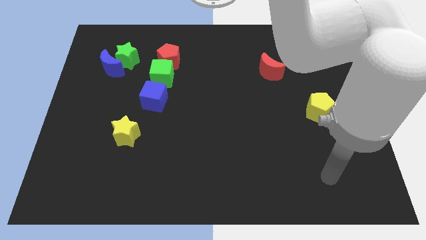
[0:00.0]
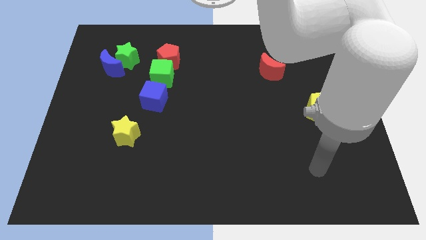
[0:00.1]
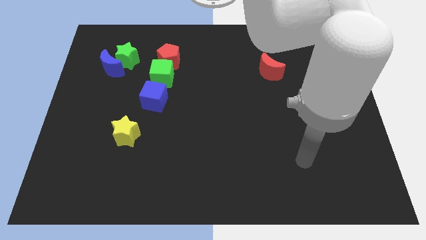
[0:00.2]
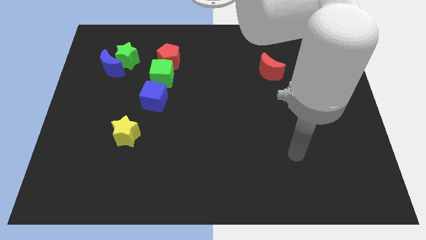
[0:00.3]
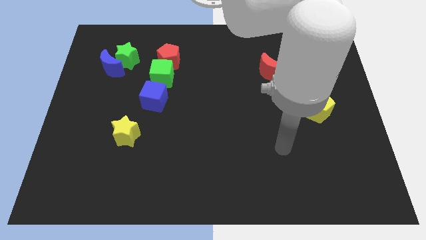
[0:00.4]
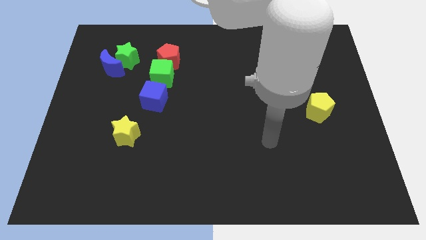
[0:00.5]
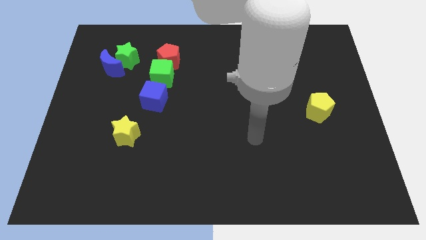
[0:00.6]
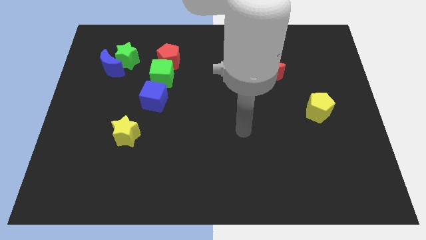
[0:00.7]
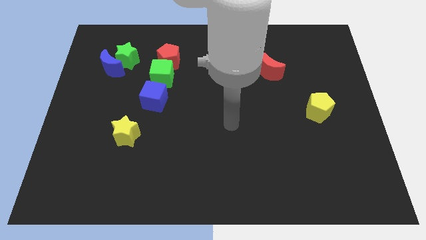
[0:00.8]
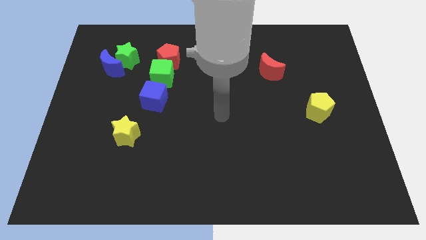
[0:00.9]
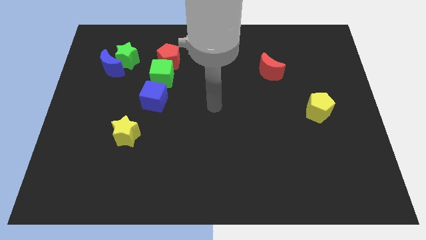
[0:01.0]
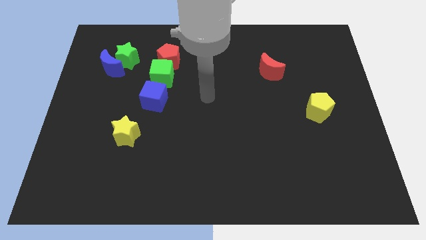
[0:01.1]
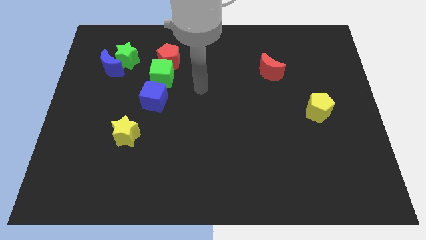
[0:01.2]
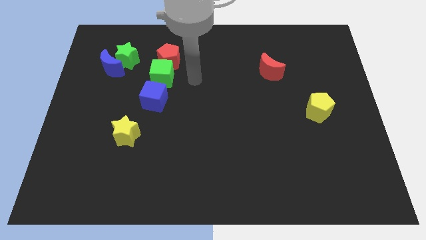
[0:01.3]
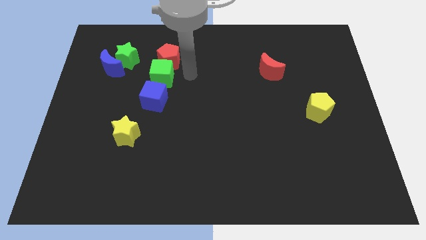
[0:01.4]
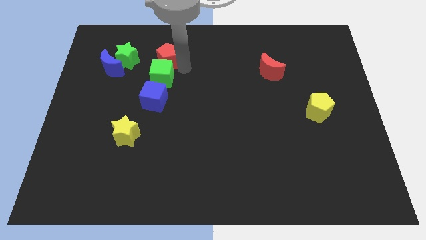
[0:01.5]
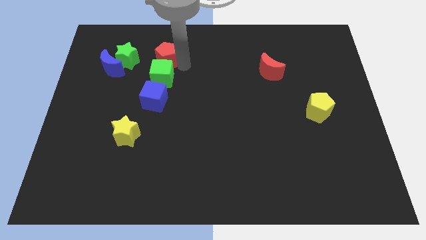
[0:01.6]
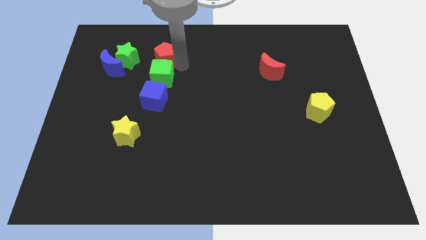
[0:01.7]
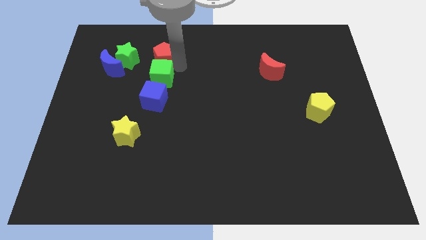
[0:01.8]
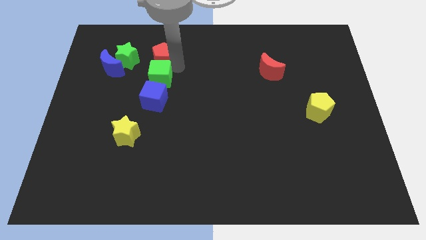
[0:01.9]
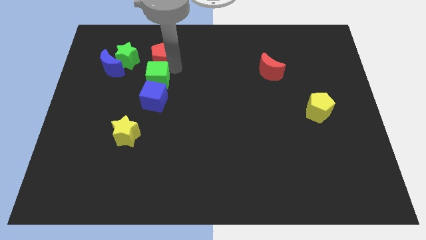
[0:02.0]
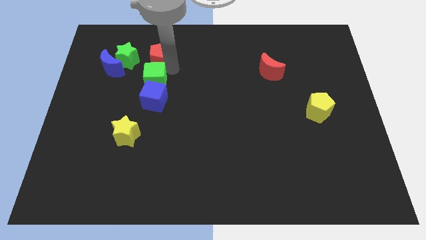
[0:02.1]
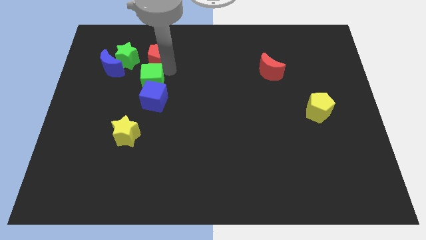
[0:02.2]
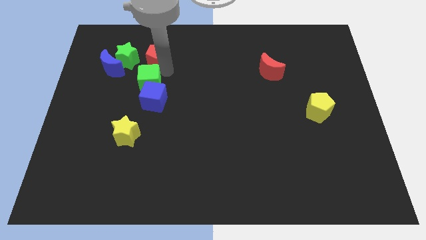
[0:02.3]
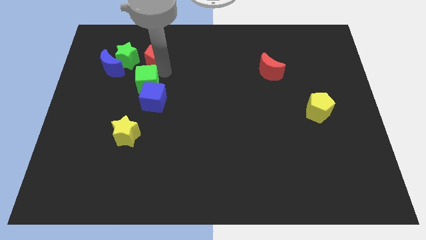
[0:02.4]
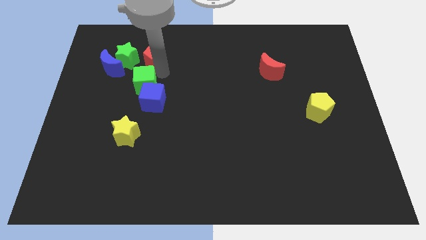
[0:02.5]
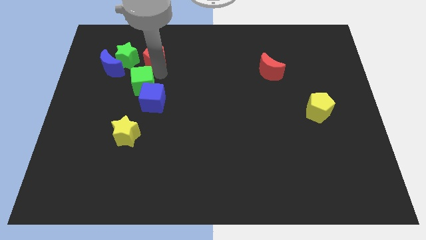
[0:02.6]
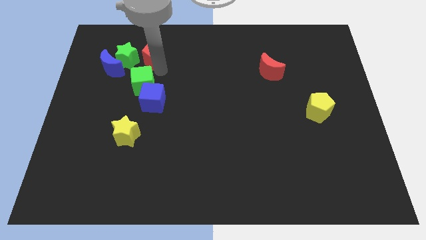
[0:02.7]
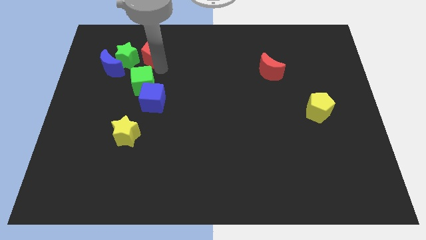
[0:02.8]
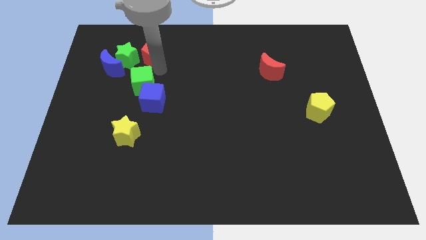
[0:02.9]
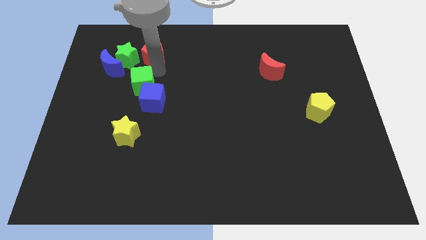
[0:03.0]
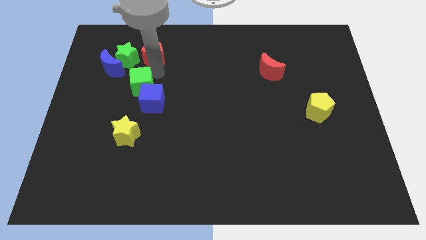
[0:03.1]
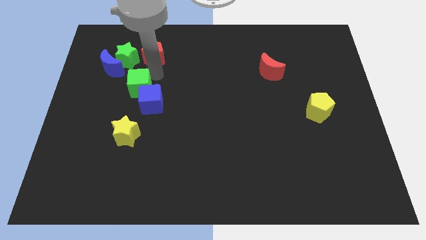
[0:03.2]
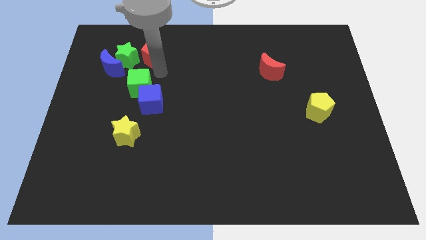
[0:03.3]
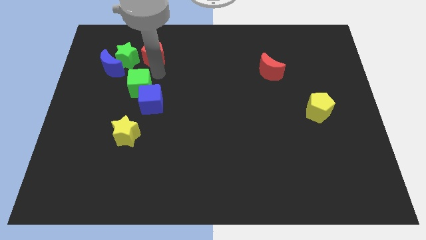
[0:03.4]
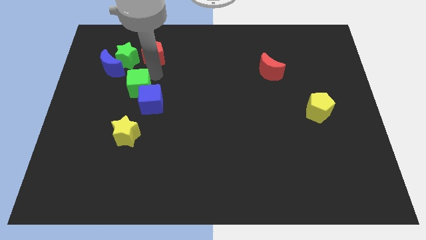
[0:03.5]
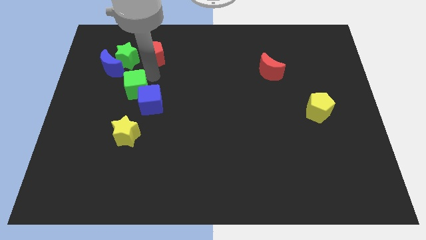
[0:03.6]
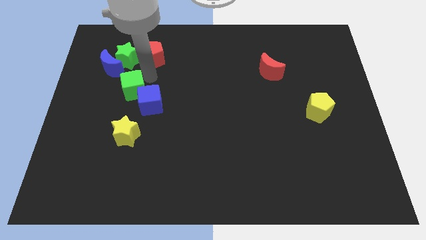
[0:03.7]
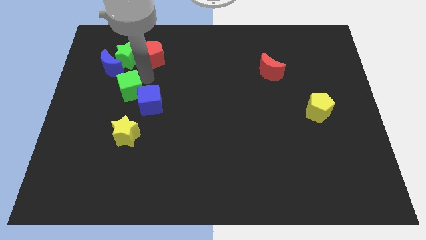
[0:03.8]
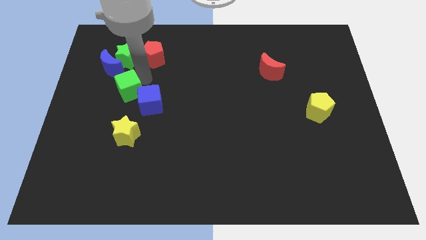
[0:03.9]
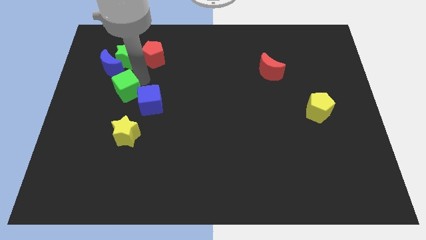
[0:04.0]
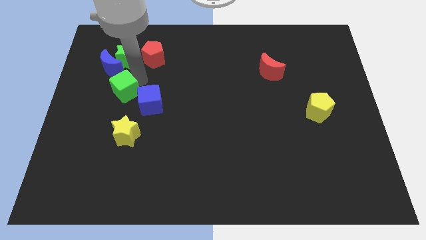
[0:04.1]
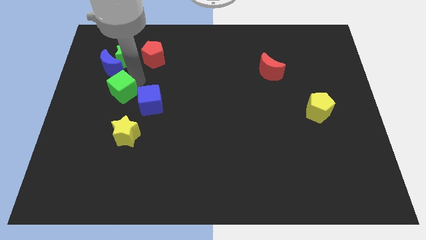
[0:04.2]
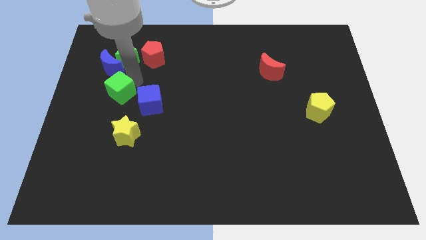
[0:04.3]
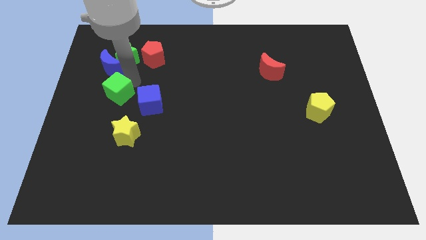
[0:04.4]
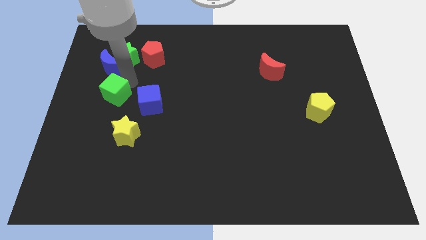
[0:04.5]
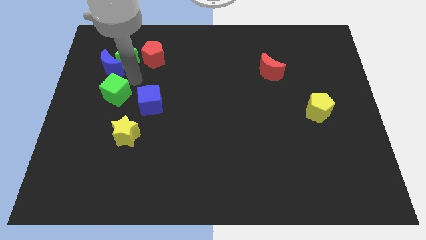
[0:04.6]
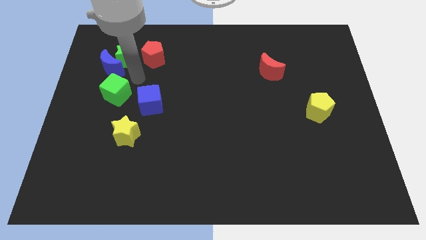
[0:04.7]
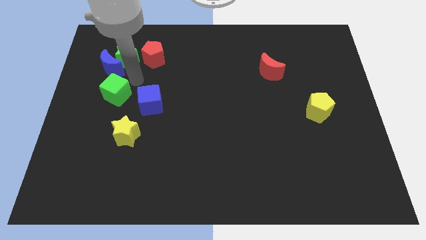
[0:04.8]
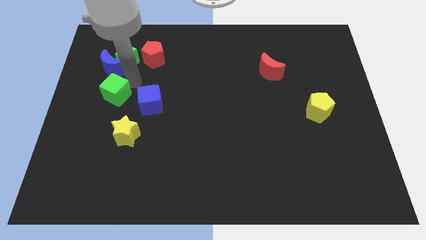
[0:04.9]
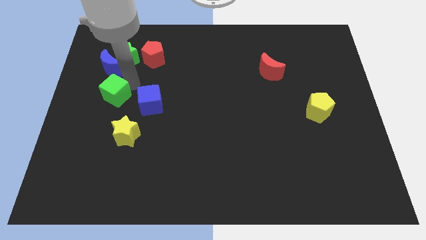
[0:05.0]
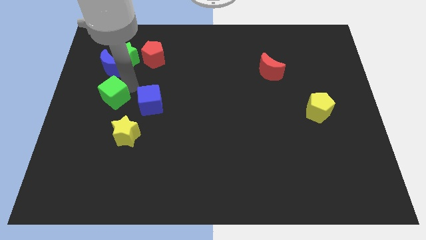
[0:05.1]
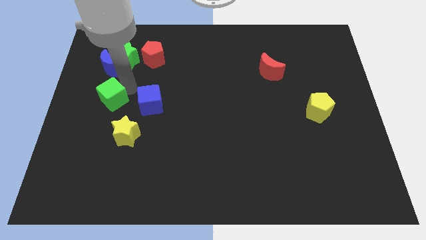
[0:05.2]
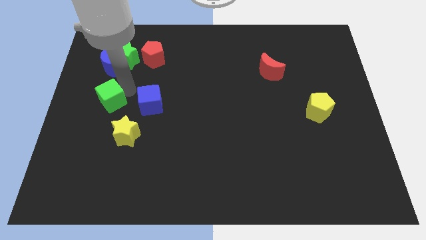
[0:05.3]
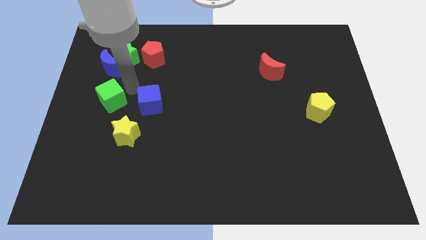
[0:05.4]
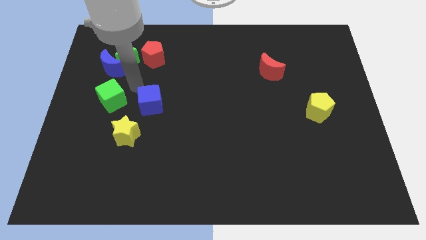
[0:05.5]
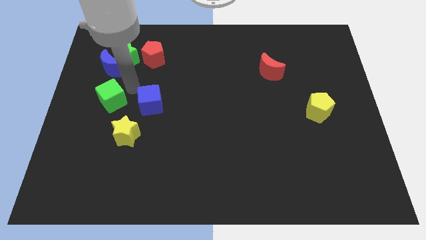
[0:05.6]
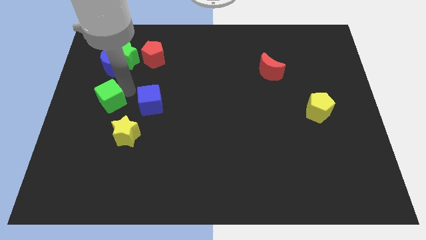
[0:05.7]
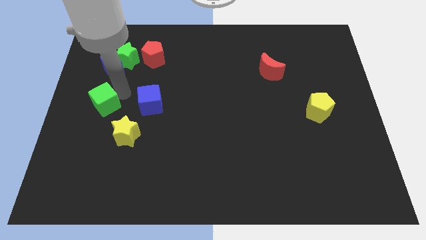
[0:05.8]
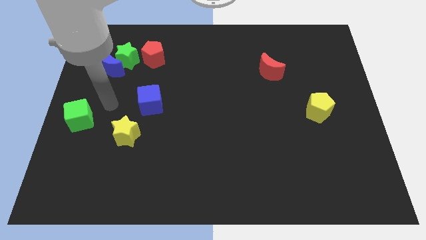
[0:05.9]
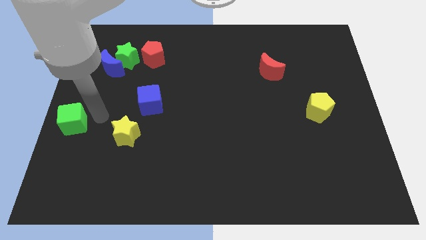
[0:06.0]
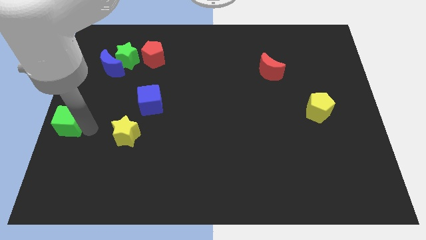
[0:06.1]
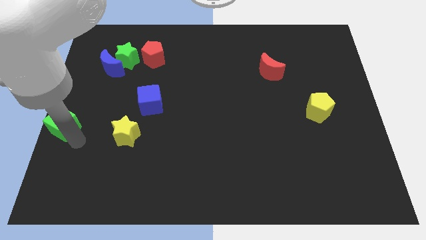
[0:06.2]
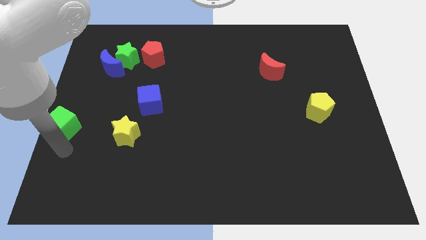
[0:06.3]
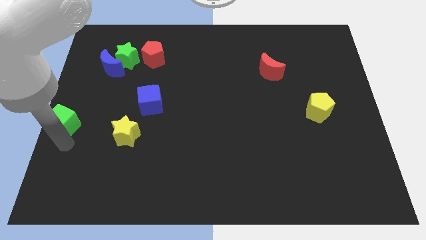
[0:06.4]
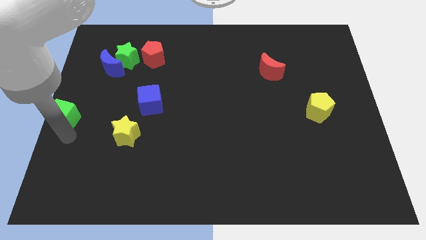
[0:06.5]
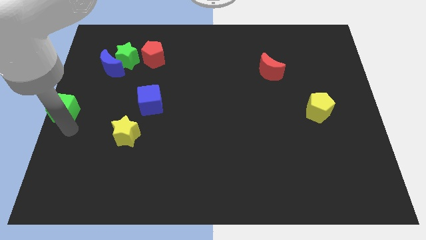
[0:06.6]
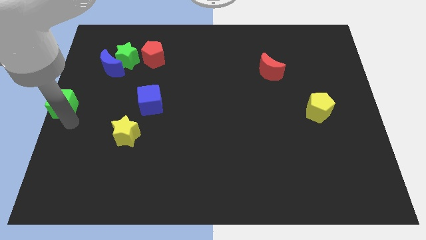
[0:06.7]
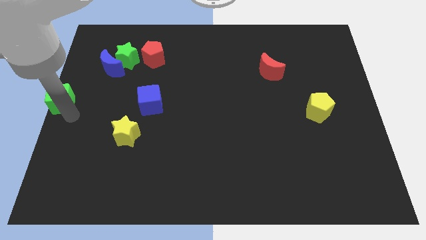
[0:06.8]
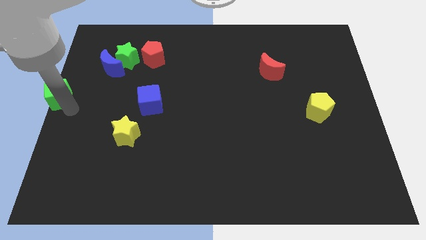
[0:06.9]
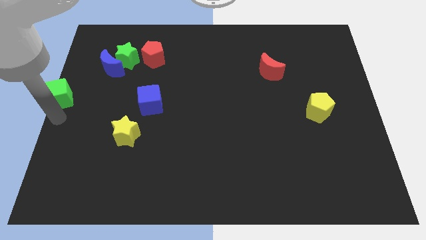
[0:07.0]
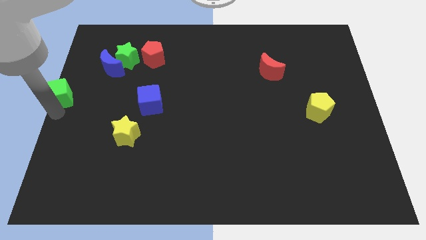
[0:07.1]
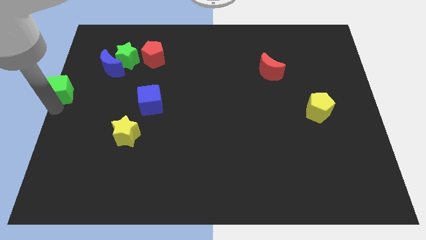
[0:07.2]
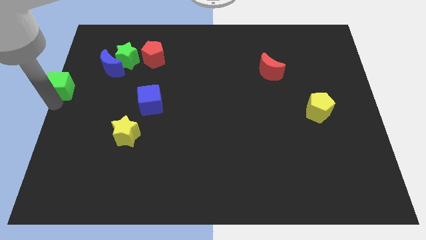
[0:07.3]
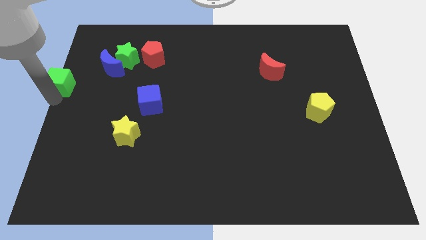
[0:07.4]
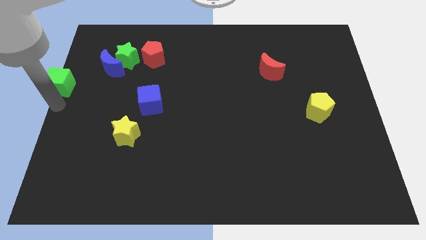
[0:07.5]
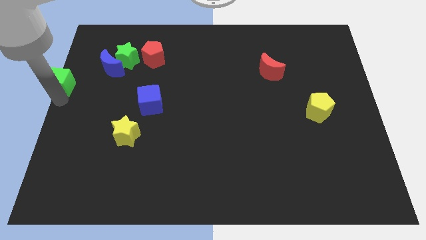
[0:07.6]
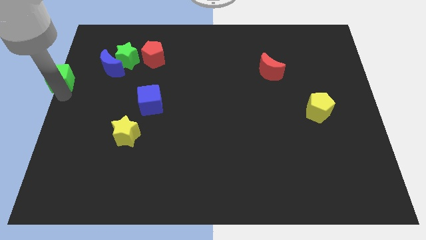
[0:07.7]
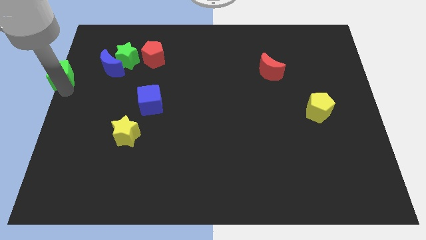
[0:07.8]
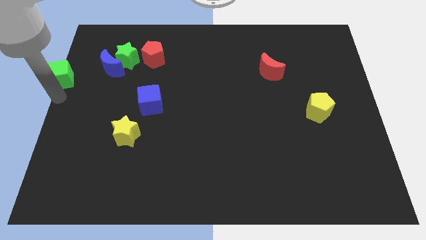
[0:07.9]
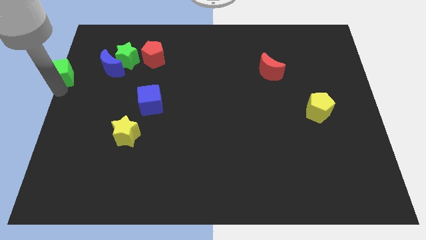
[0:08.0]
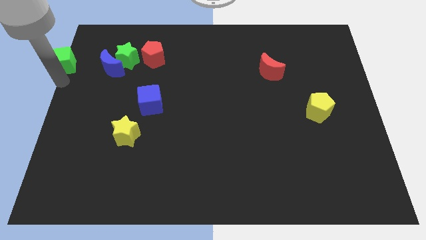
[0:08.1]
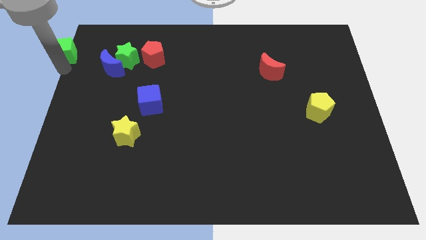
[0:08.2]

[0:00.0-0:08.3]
move the green cube to the top left corner
